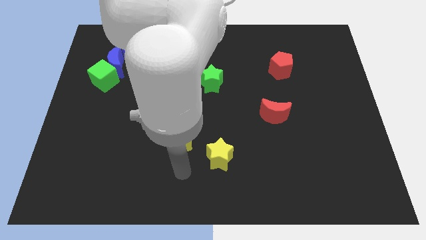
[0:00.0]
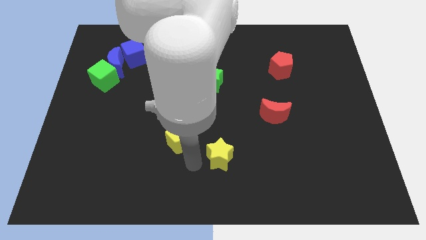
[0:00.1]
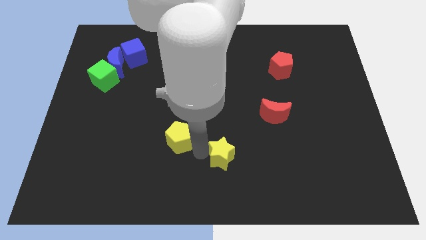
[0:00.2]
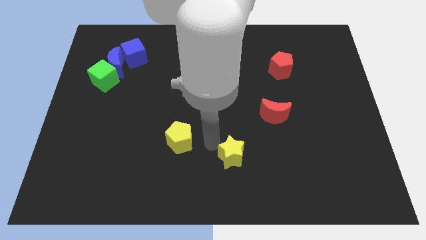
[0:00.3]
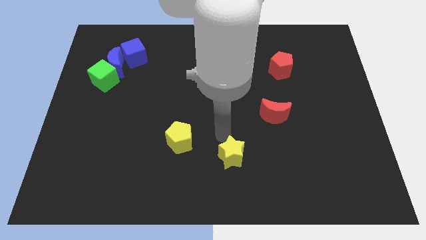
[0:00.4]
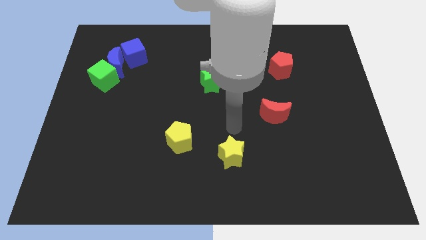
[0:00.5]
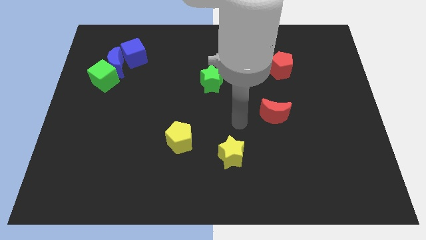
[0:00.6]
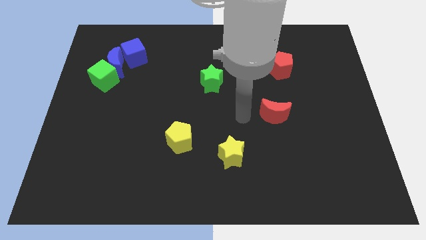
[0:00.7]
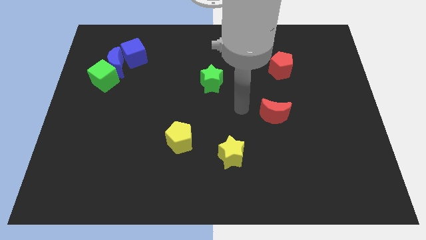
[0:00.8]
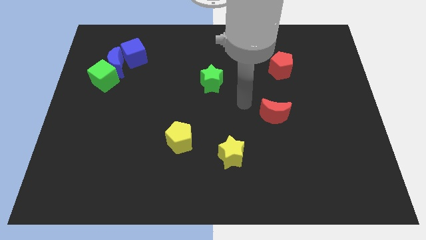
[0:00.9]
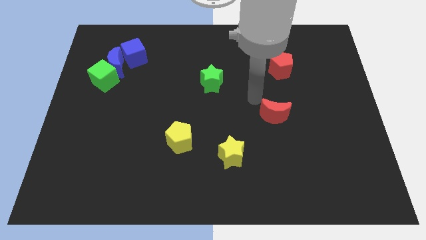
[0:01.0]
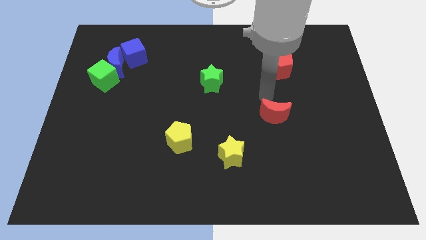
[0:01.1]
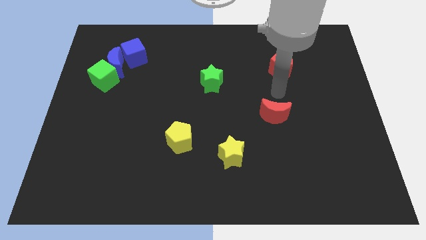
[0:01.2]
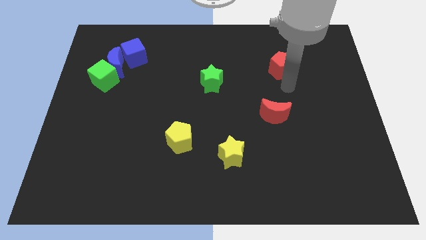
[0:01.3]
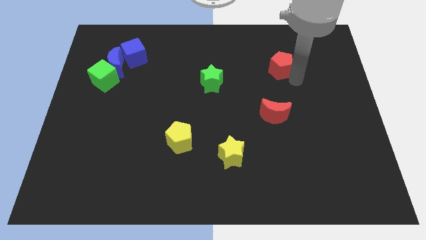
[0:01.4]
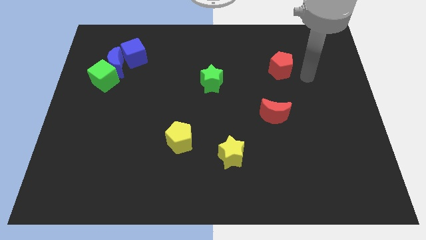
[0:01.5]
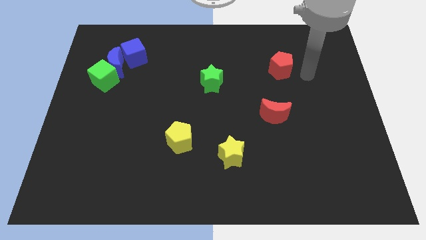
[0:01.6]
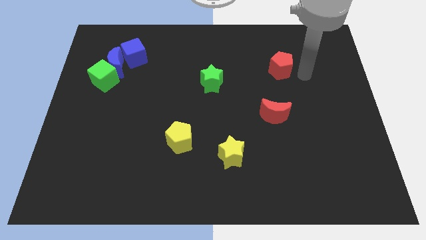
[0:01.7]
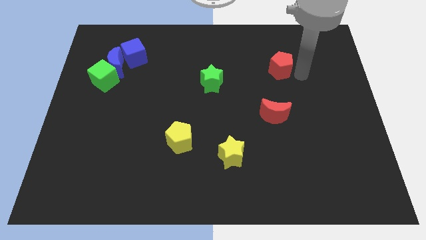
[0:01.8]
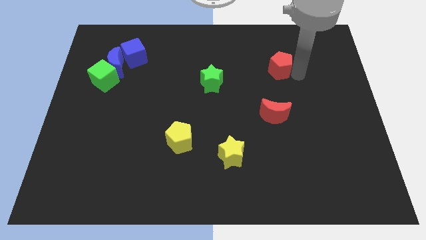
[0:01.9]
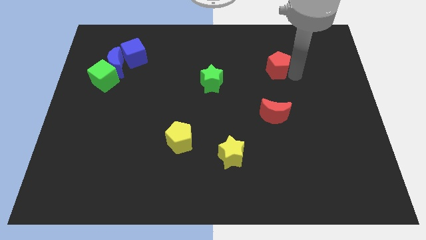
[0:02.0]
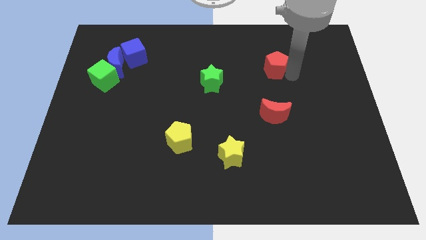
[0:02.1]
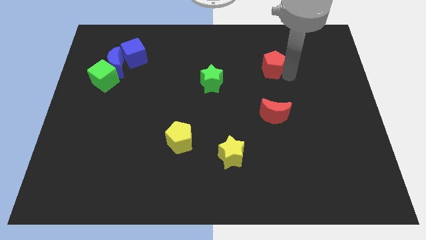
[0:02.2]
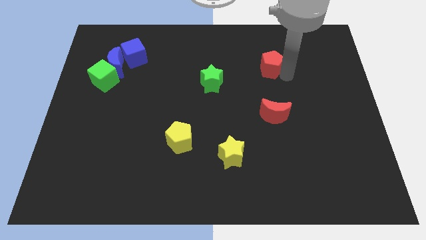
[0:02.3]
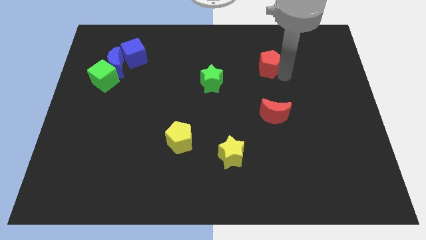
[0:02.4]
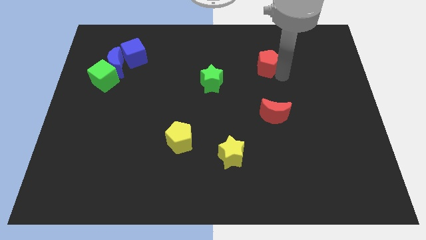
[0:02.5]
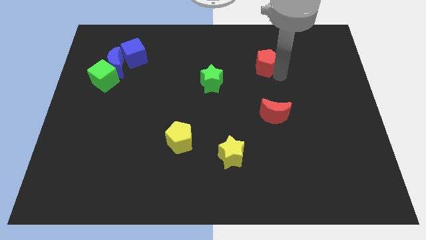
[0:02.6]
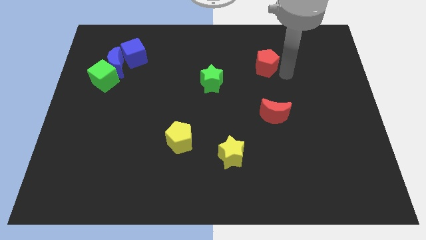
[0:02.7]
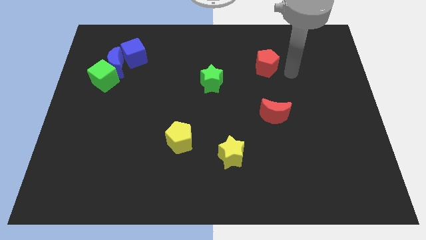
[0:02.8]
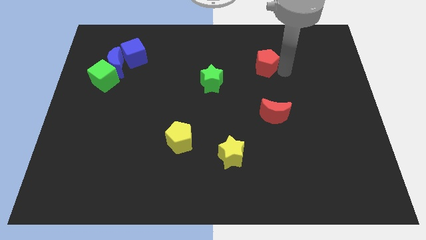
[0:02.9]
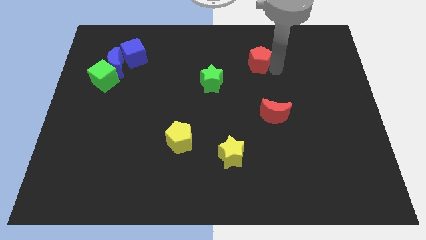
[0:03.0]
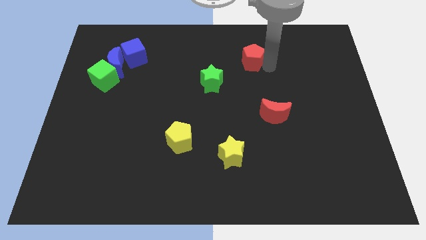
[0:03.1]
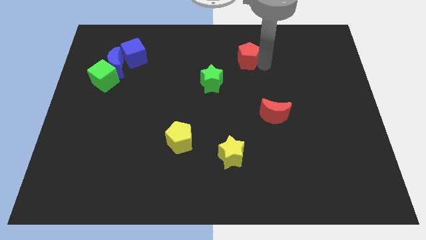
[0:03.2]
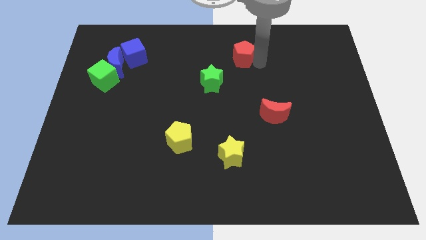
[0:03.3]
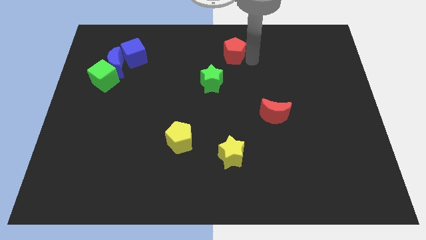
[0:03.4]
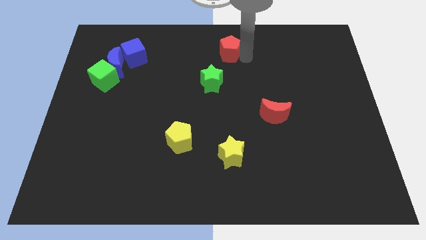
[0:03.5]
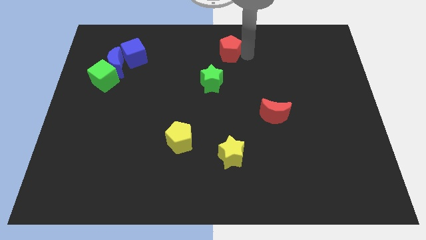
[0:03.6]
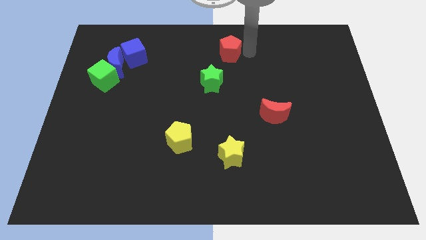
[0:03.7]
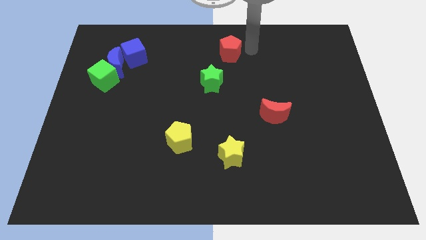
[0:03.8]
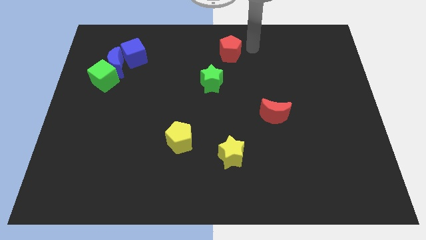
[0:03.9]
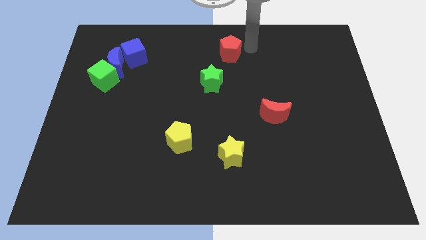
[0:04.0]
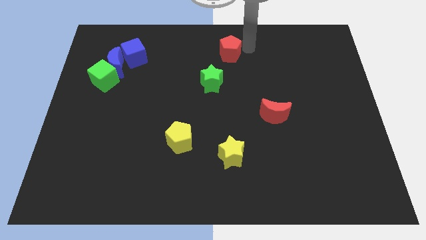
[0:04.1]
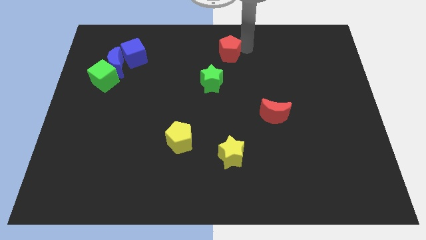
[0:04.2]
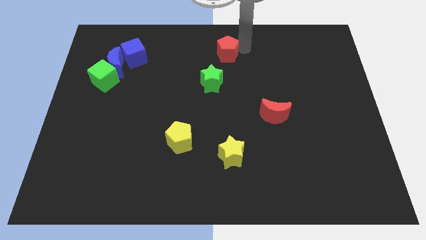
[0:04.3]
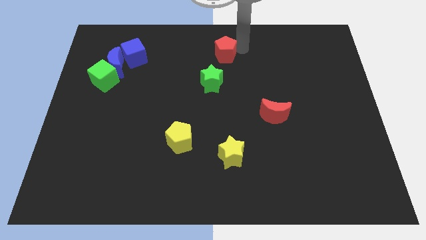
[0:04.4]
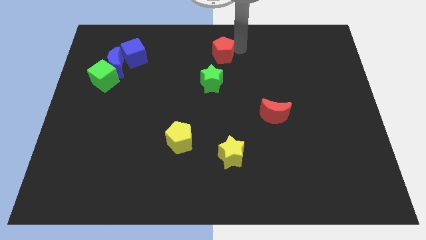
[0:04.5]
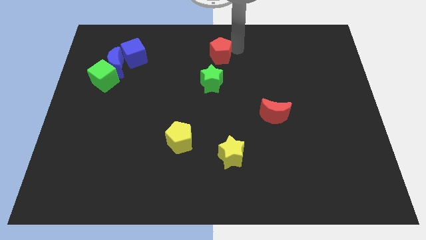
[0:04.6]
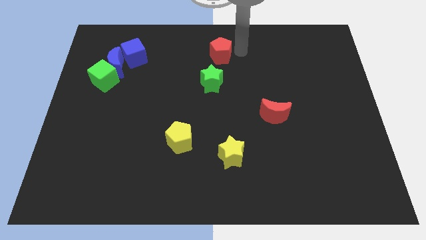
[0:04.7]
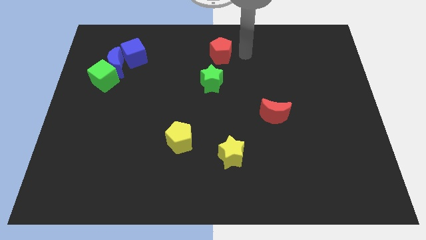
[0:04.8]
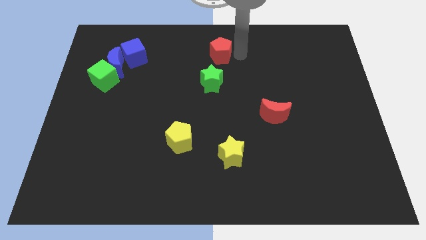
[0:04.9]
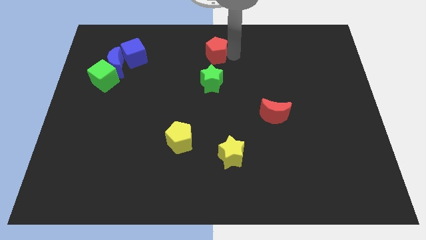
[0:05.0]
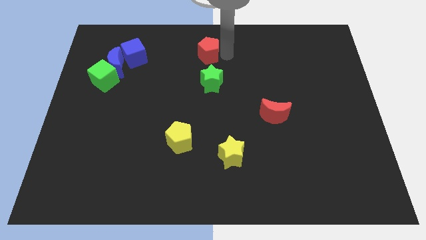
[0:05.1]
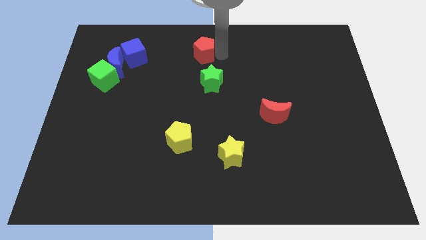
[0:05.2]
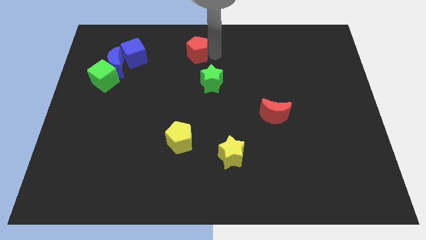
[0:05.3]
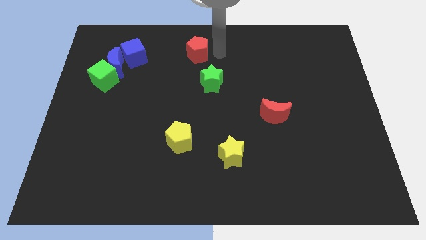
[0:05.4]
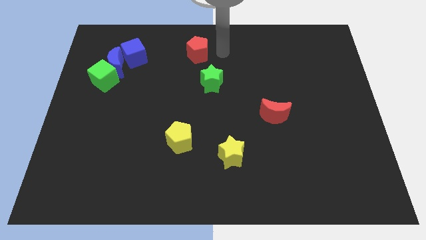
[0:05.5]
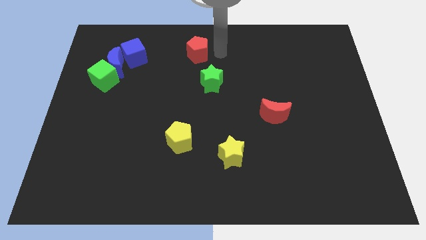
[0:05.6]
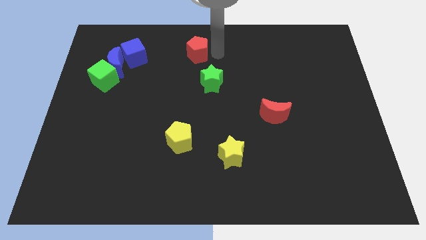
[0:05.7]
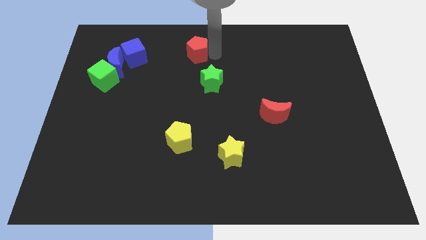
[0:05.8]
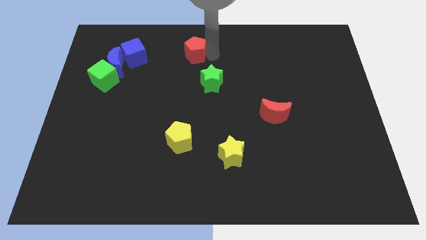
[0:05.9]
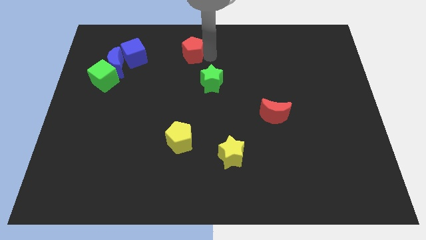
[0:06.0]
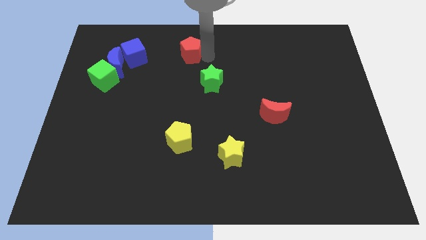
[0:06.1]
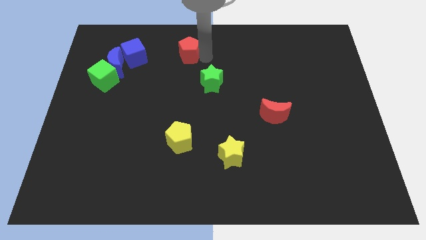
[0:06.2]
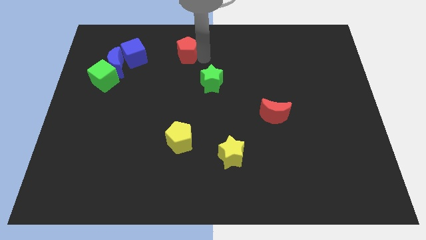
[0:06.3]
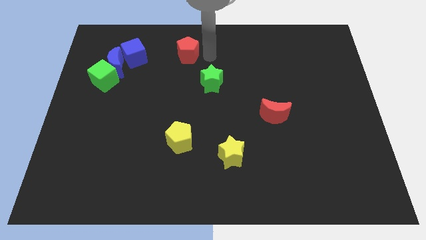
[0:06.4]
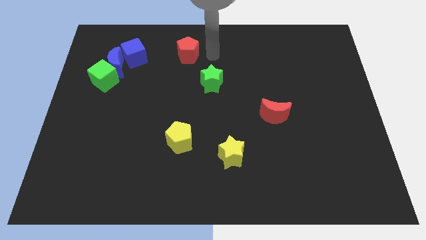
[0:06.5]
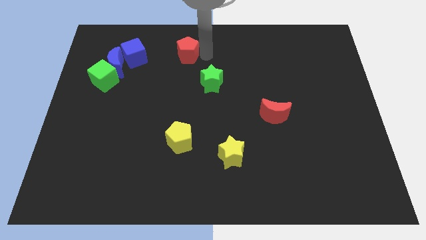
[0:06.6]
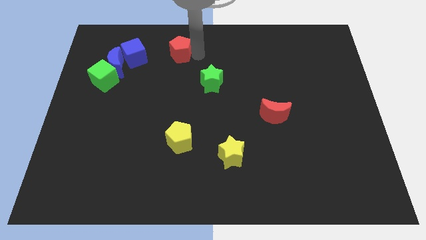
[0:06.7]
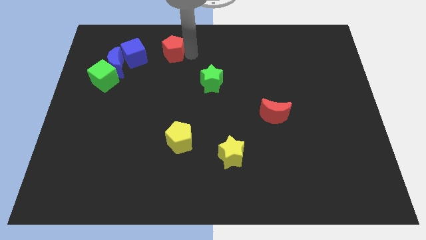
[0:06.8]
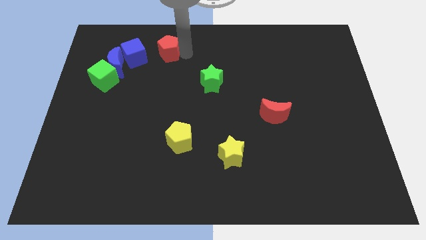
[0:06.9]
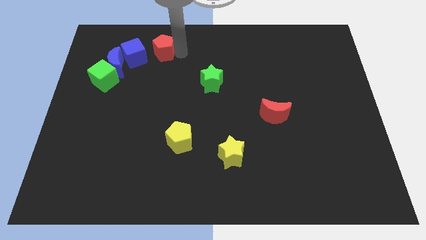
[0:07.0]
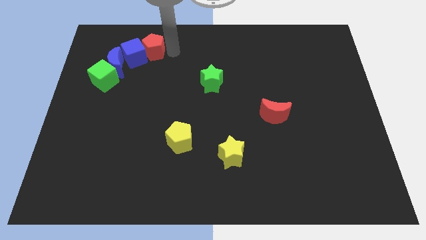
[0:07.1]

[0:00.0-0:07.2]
push the red pentagon towards the blue cube
